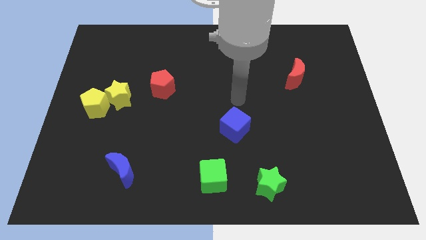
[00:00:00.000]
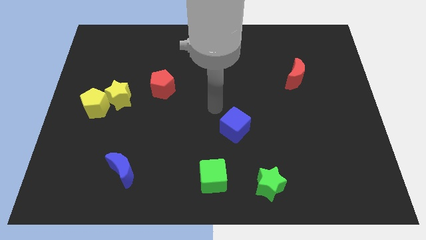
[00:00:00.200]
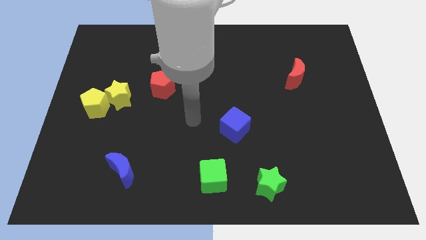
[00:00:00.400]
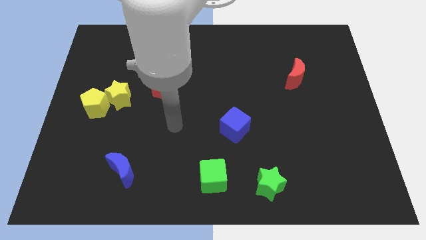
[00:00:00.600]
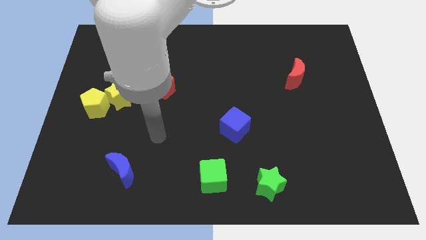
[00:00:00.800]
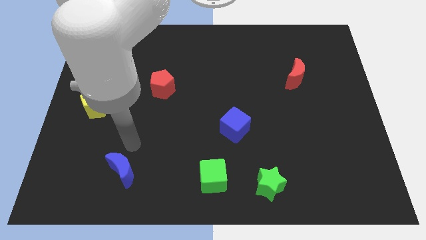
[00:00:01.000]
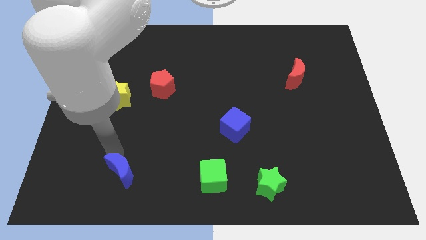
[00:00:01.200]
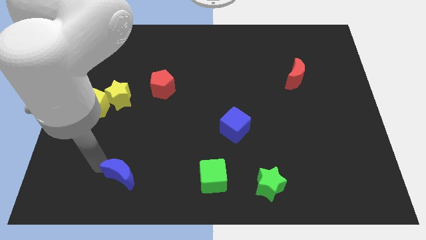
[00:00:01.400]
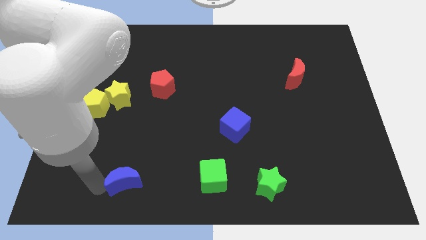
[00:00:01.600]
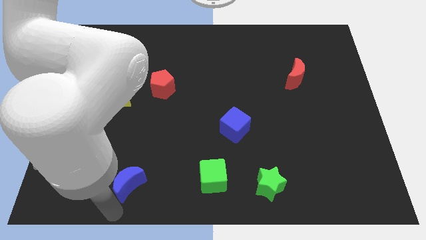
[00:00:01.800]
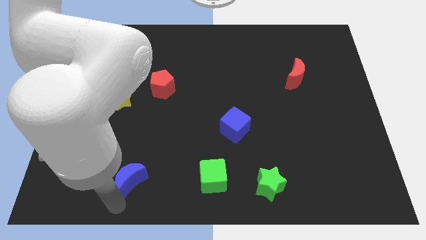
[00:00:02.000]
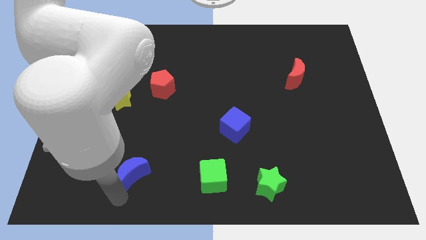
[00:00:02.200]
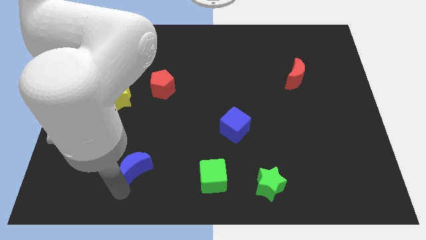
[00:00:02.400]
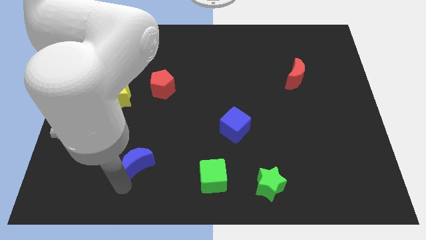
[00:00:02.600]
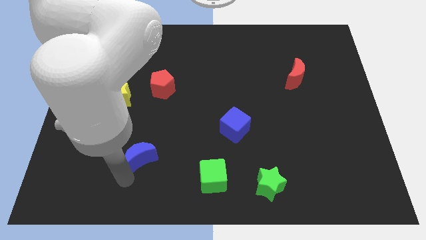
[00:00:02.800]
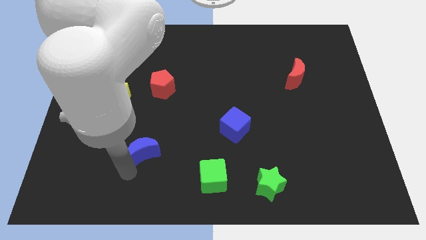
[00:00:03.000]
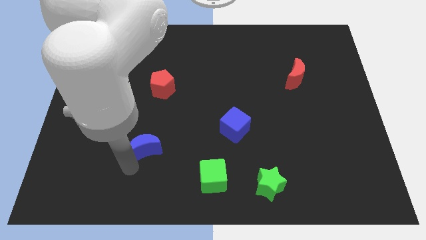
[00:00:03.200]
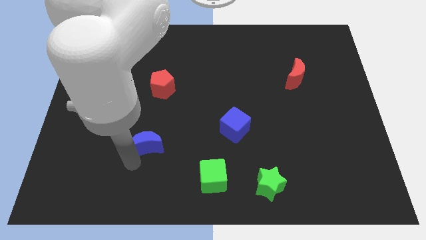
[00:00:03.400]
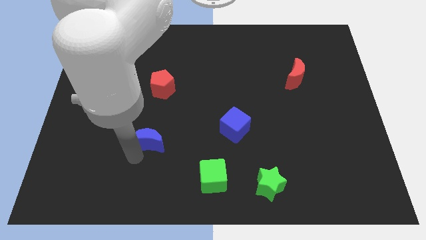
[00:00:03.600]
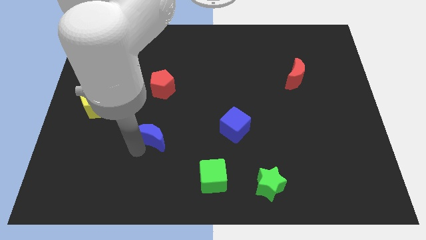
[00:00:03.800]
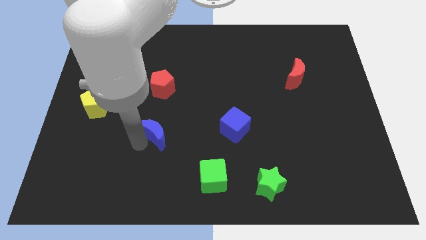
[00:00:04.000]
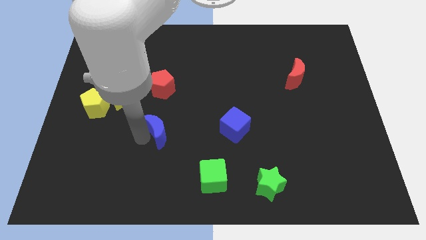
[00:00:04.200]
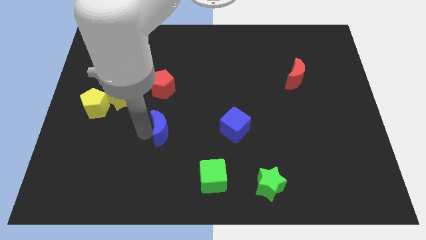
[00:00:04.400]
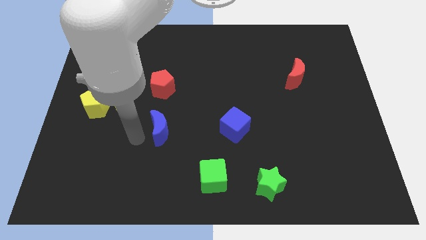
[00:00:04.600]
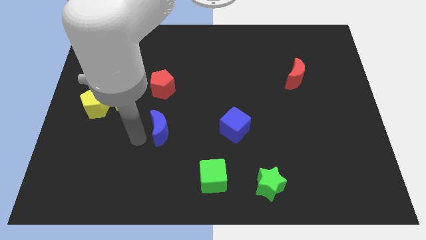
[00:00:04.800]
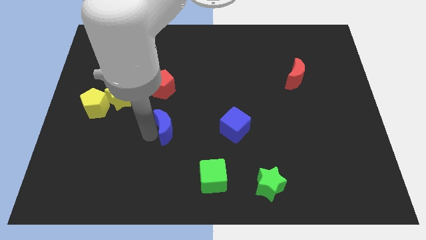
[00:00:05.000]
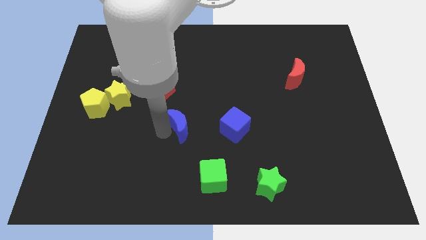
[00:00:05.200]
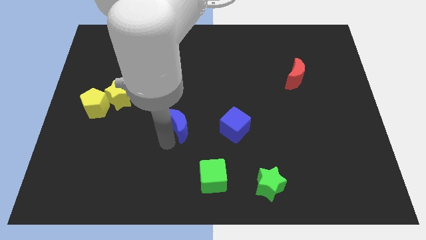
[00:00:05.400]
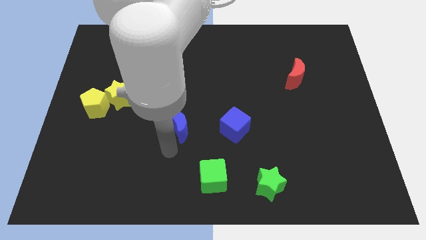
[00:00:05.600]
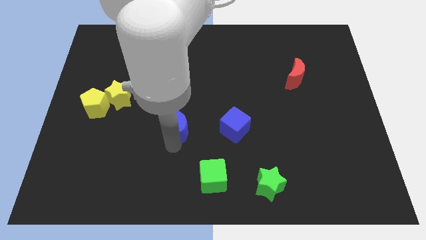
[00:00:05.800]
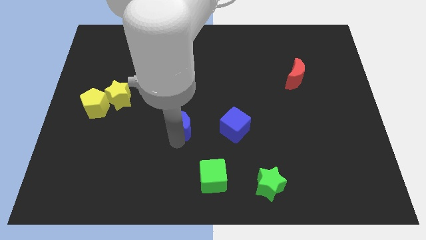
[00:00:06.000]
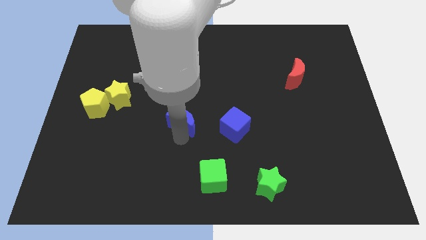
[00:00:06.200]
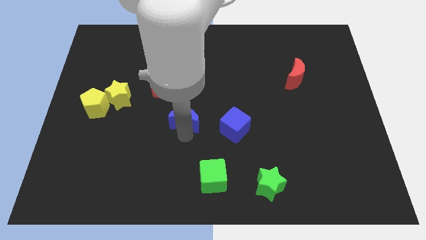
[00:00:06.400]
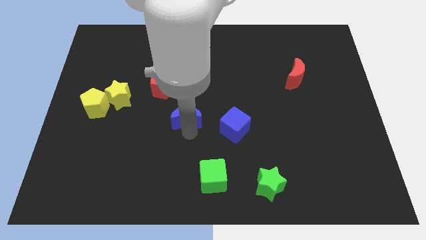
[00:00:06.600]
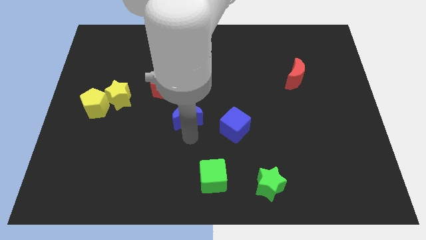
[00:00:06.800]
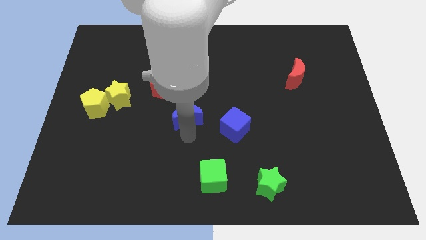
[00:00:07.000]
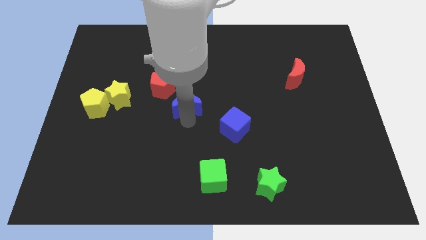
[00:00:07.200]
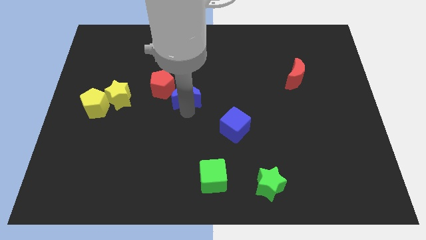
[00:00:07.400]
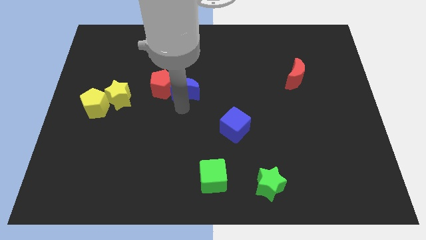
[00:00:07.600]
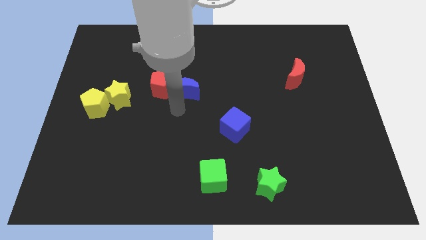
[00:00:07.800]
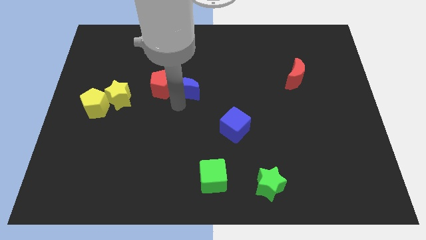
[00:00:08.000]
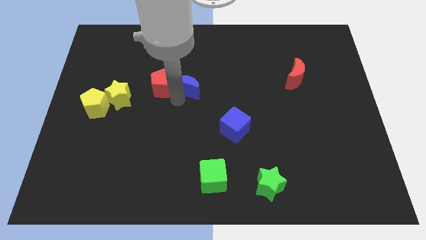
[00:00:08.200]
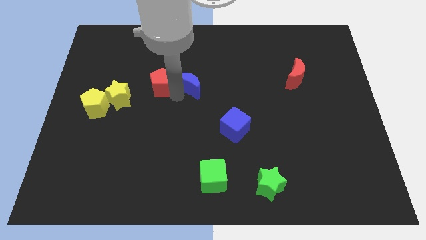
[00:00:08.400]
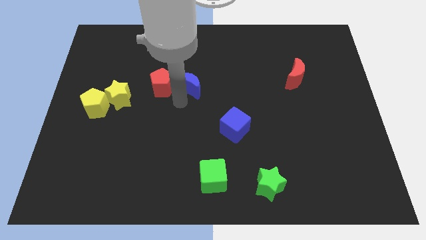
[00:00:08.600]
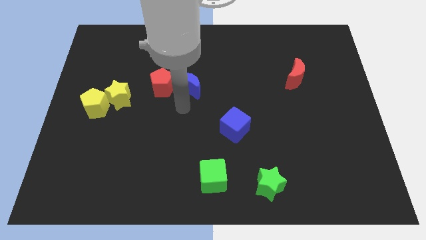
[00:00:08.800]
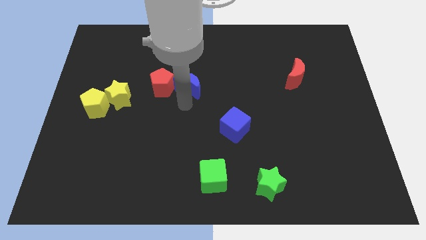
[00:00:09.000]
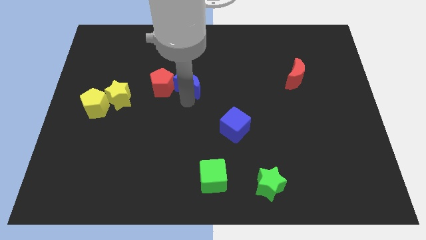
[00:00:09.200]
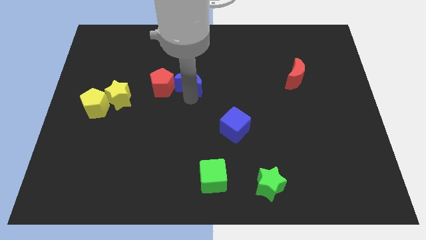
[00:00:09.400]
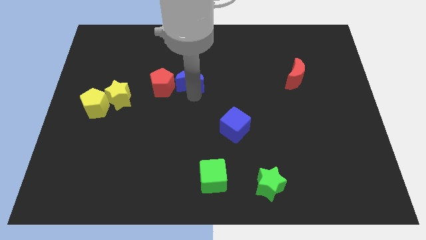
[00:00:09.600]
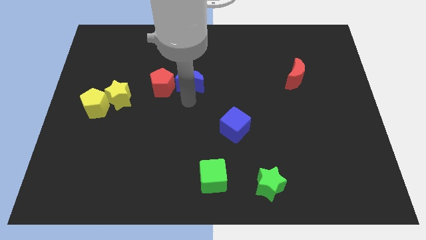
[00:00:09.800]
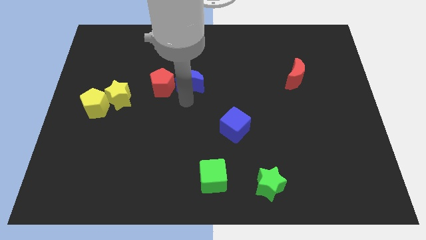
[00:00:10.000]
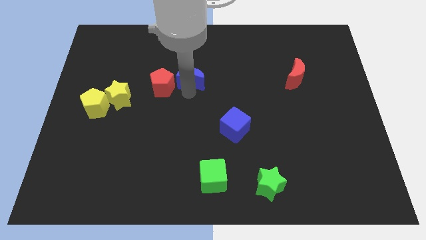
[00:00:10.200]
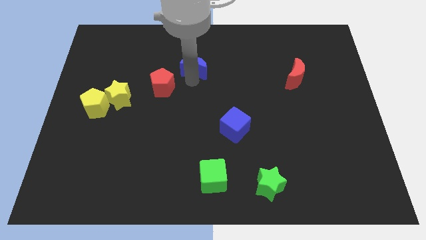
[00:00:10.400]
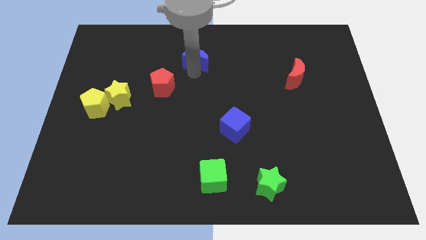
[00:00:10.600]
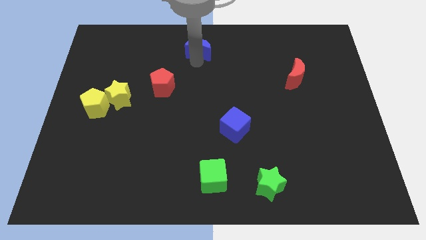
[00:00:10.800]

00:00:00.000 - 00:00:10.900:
push the blue moon to the top

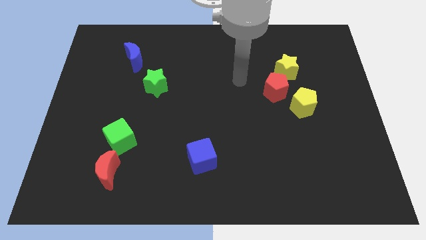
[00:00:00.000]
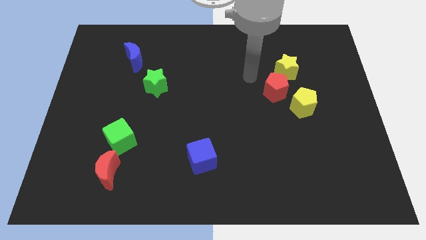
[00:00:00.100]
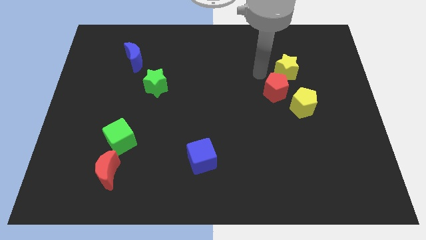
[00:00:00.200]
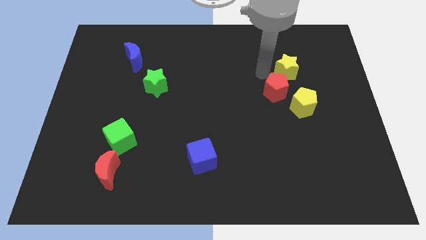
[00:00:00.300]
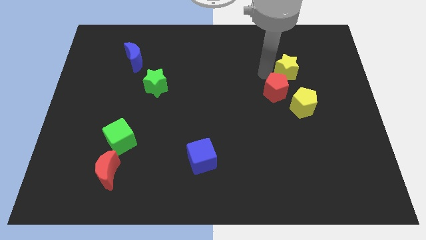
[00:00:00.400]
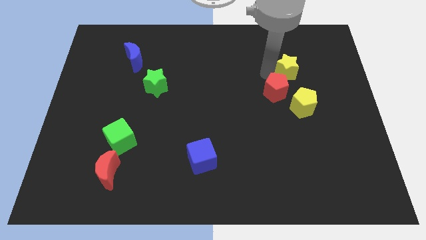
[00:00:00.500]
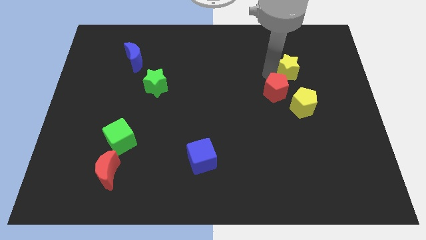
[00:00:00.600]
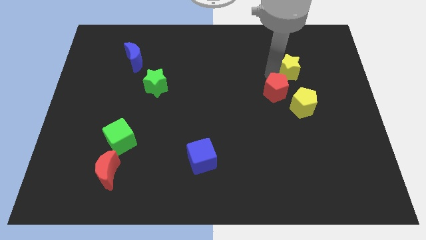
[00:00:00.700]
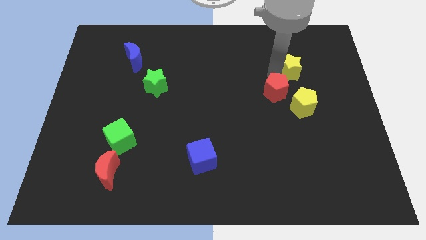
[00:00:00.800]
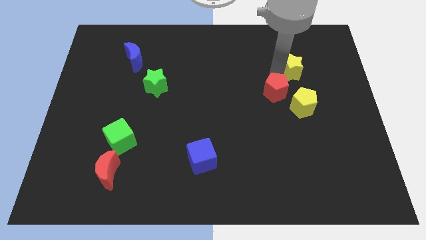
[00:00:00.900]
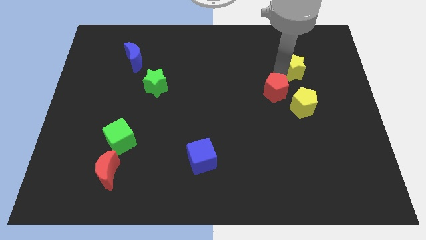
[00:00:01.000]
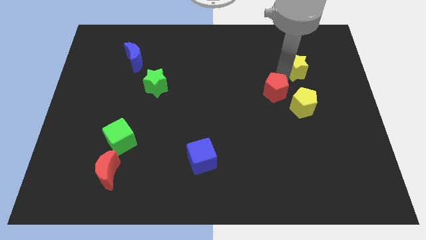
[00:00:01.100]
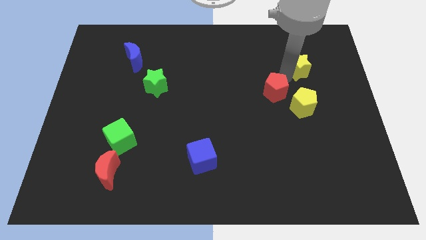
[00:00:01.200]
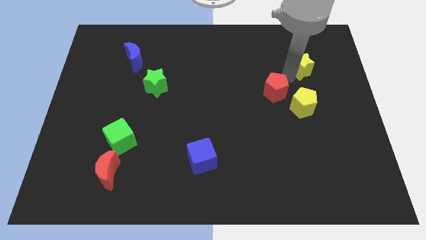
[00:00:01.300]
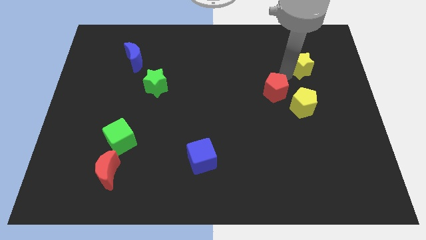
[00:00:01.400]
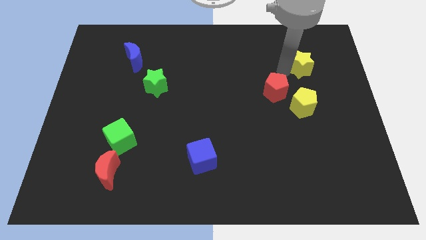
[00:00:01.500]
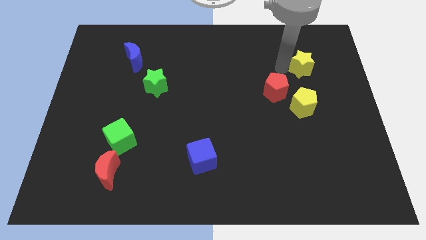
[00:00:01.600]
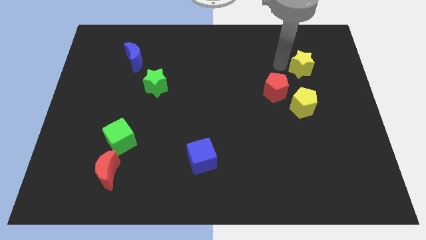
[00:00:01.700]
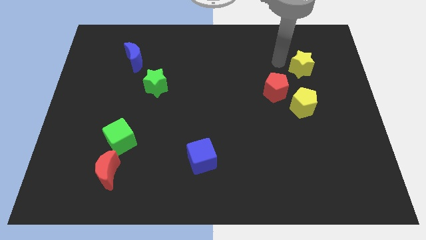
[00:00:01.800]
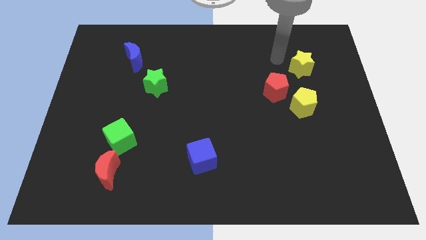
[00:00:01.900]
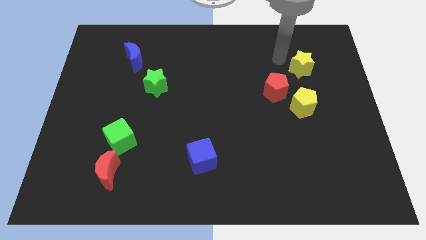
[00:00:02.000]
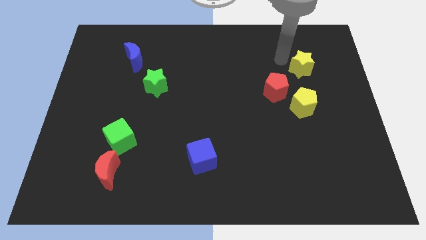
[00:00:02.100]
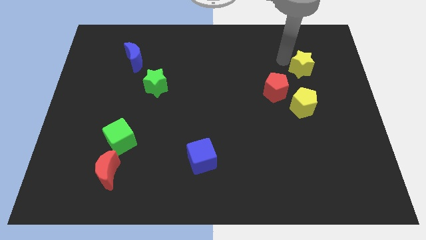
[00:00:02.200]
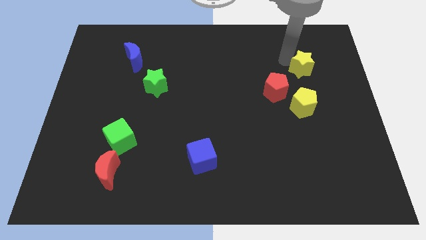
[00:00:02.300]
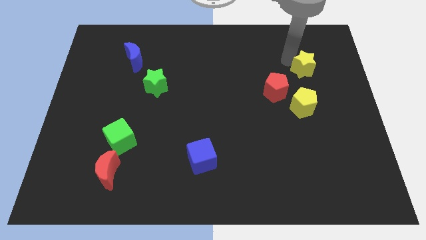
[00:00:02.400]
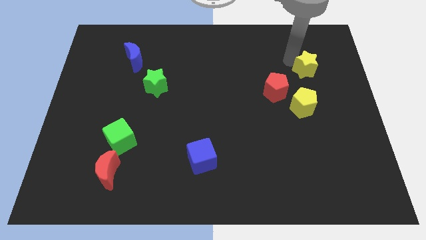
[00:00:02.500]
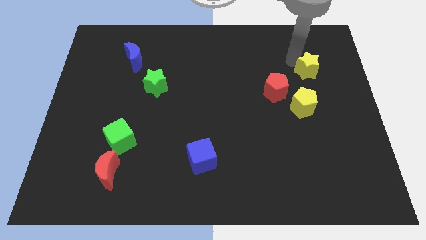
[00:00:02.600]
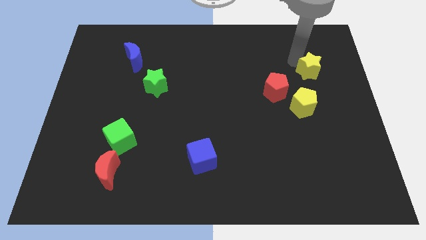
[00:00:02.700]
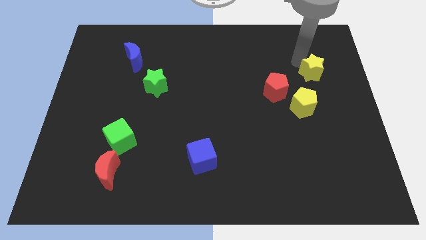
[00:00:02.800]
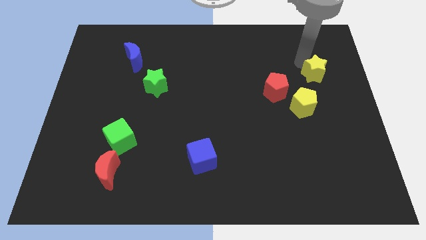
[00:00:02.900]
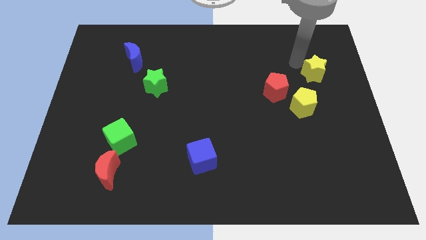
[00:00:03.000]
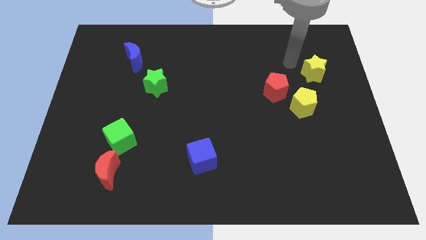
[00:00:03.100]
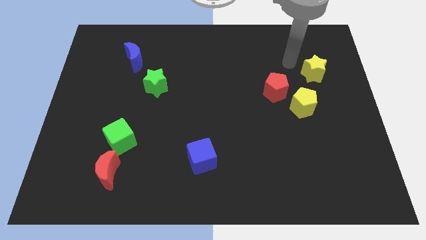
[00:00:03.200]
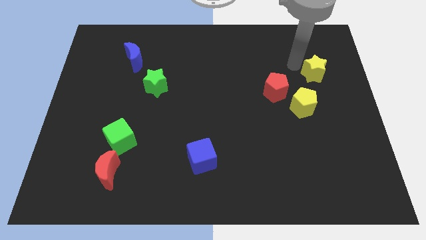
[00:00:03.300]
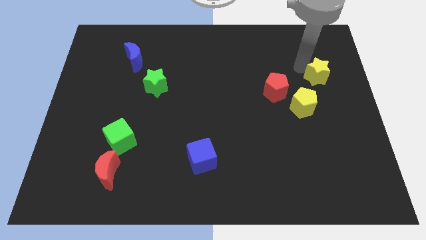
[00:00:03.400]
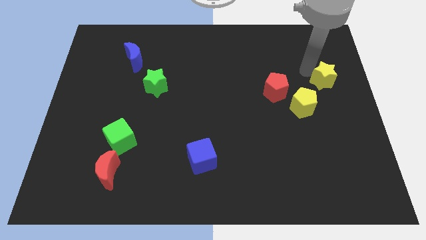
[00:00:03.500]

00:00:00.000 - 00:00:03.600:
slide the yellow star to the right side of the board
